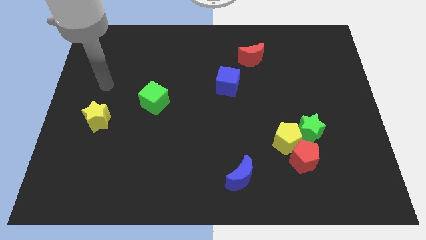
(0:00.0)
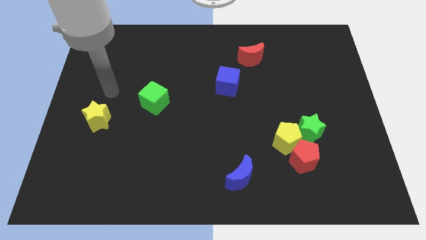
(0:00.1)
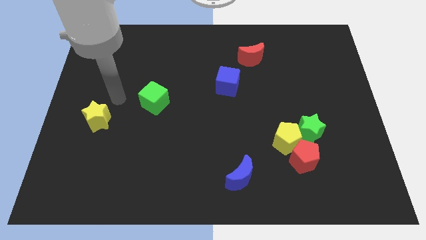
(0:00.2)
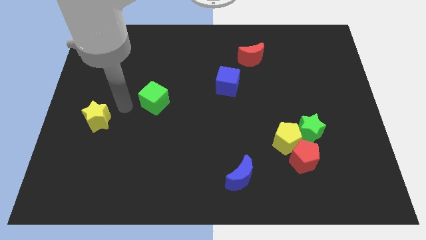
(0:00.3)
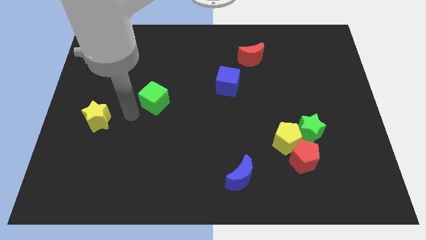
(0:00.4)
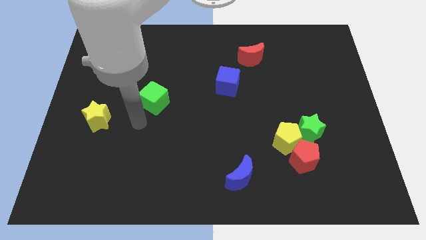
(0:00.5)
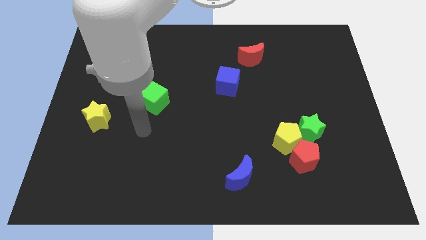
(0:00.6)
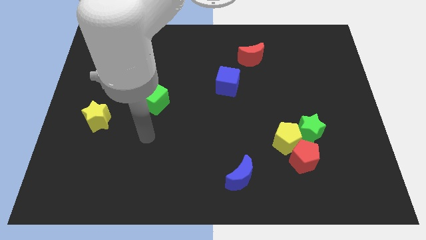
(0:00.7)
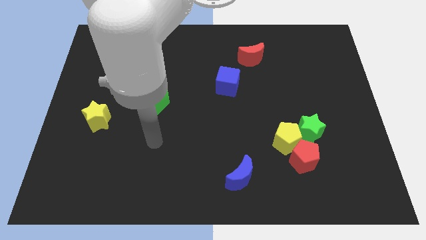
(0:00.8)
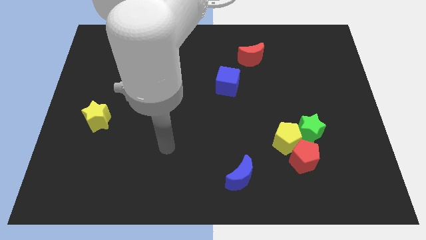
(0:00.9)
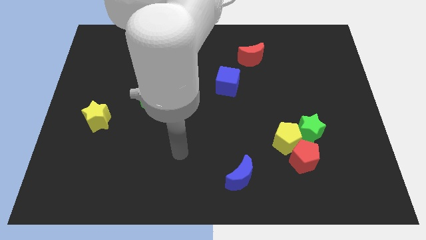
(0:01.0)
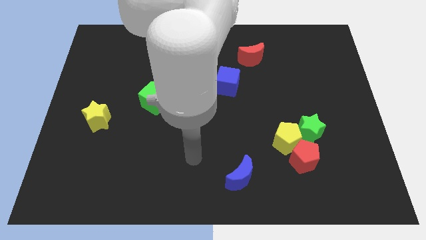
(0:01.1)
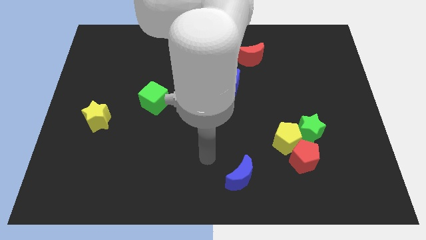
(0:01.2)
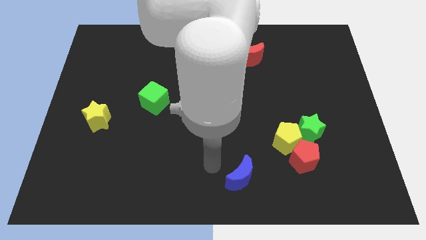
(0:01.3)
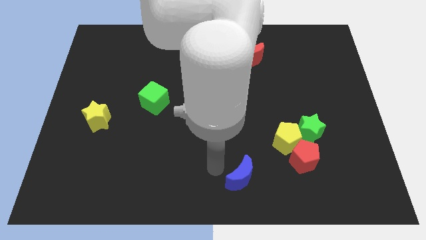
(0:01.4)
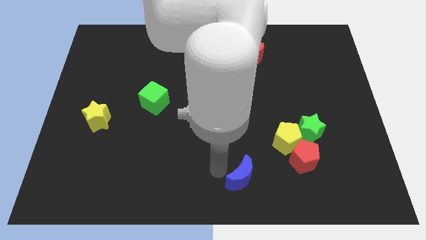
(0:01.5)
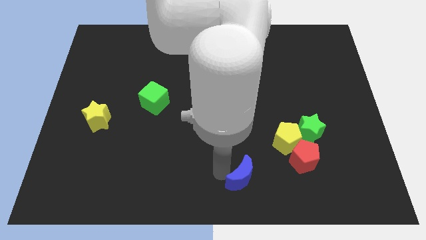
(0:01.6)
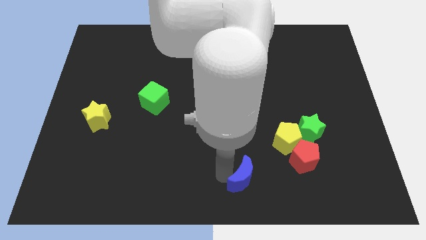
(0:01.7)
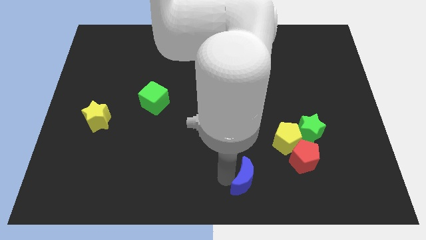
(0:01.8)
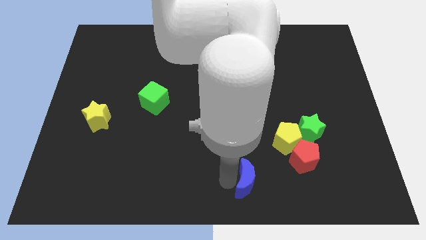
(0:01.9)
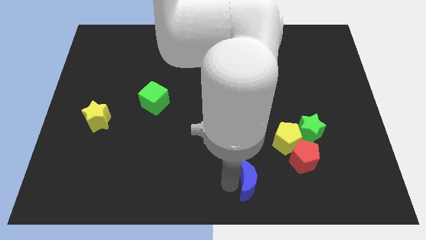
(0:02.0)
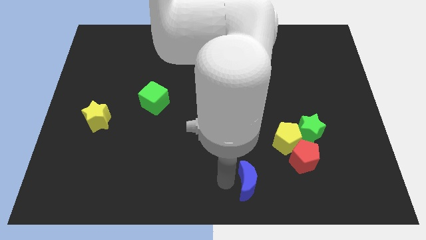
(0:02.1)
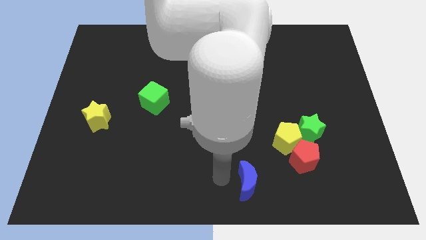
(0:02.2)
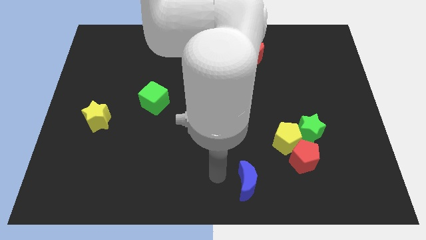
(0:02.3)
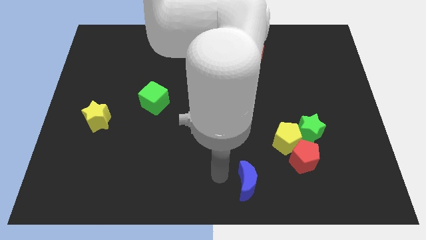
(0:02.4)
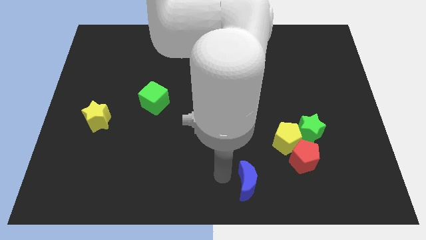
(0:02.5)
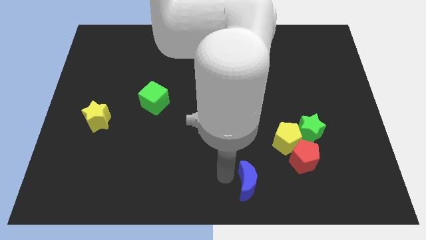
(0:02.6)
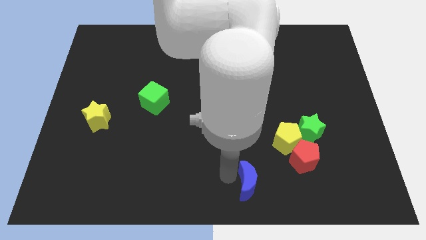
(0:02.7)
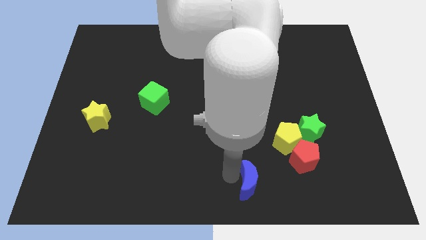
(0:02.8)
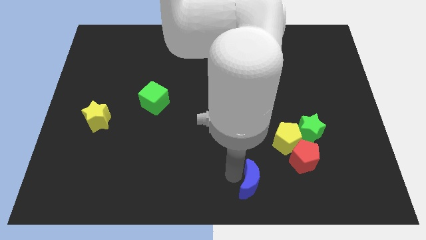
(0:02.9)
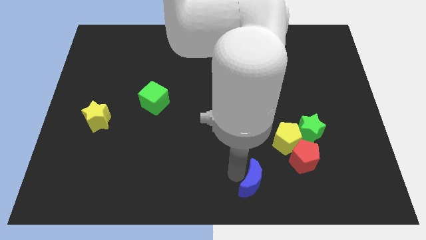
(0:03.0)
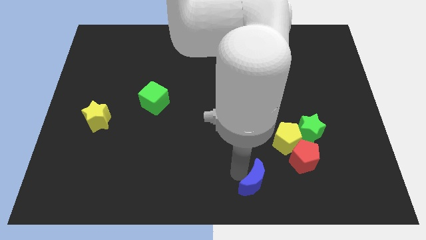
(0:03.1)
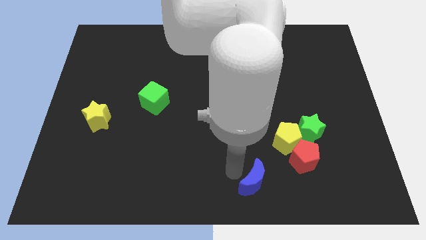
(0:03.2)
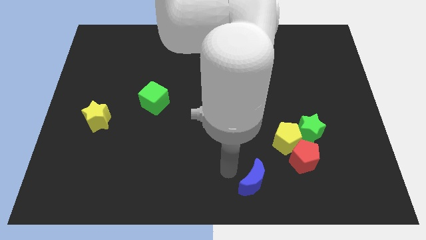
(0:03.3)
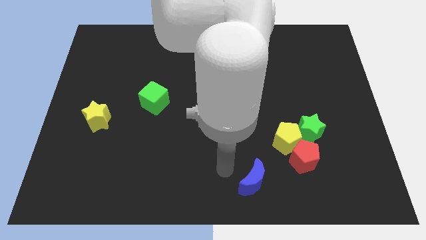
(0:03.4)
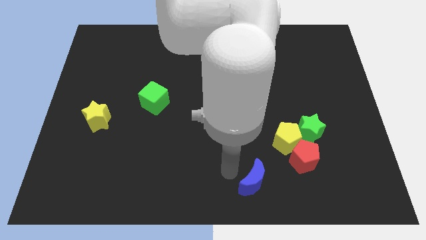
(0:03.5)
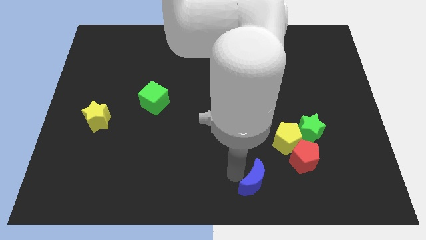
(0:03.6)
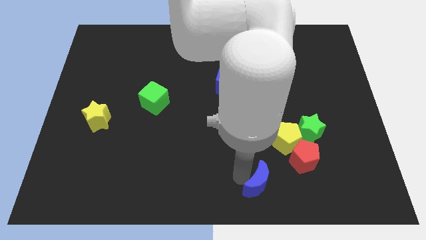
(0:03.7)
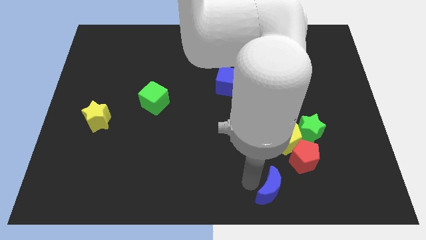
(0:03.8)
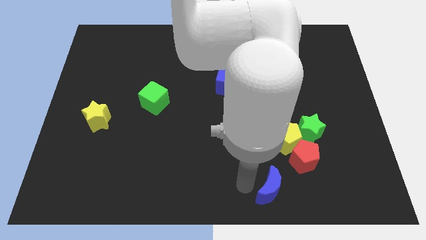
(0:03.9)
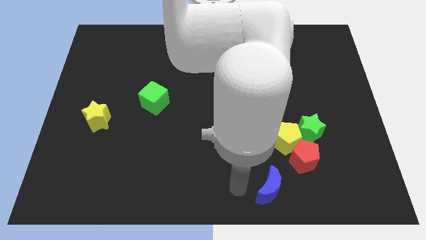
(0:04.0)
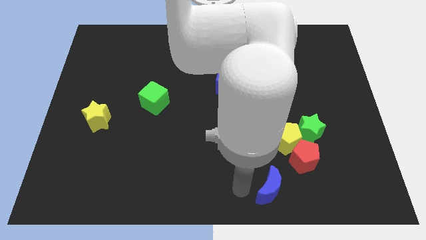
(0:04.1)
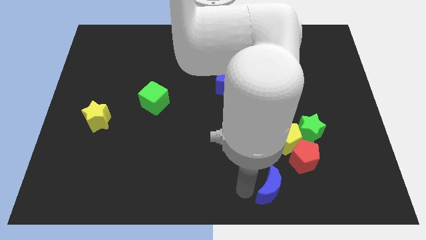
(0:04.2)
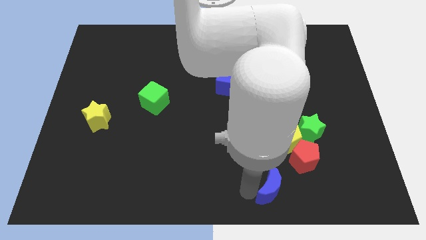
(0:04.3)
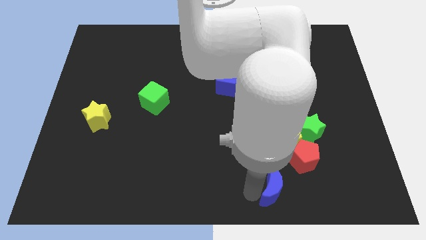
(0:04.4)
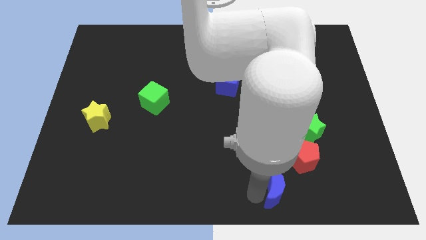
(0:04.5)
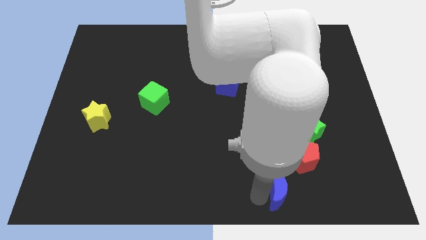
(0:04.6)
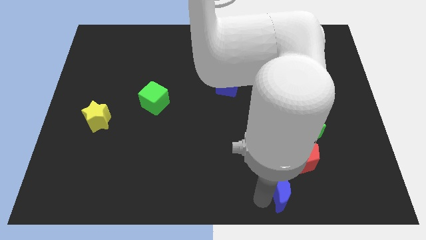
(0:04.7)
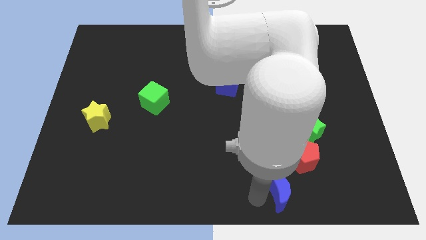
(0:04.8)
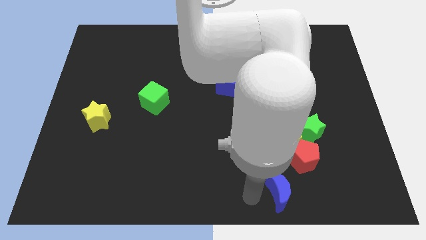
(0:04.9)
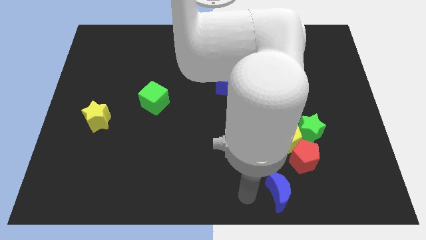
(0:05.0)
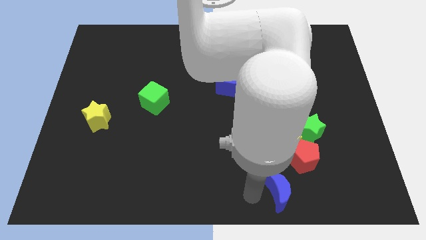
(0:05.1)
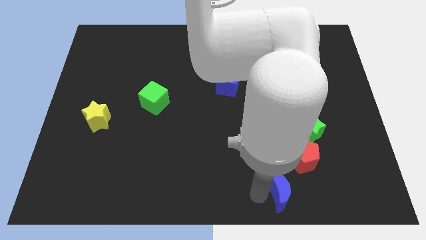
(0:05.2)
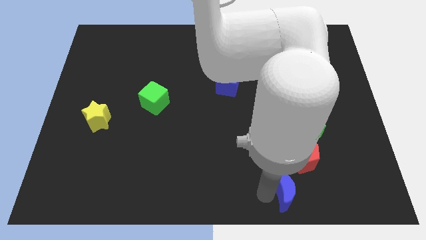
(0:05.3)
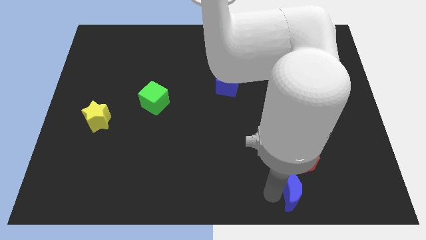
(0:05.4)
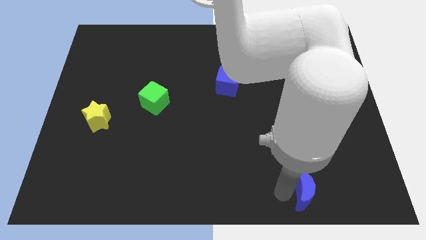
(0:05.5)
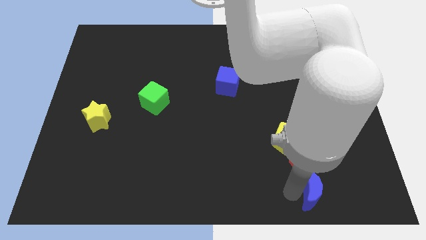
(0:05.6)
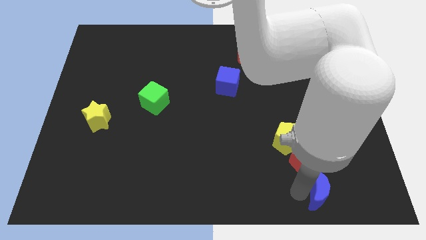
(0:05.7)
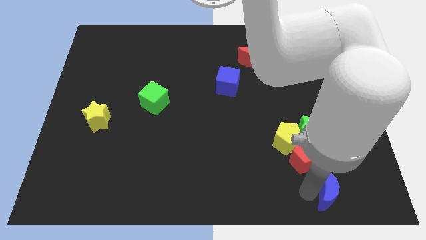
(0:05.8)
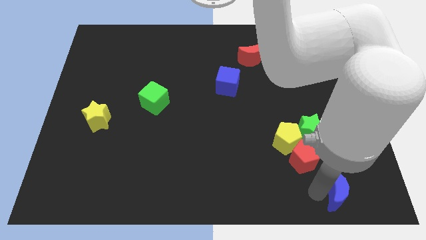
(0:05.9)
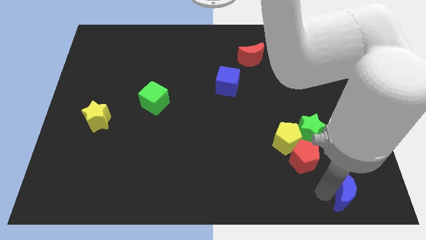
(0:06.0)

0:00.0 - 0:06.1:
push the blue moon to the bottom right corner
